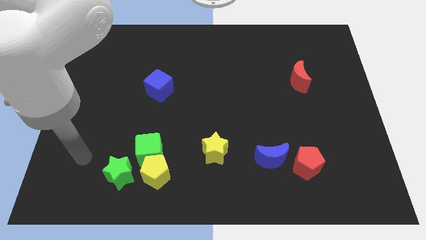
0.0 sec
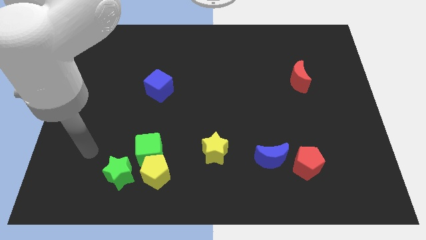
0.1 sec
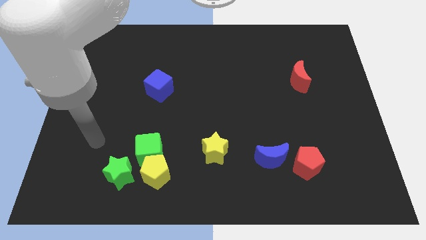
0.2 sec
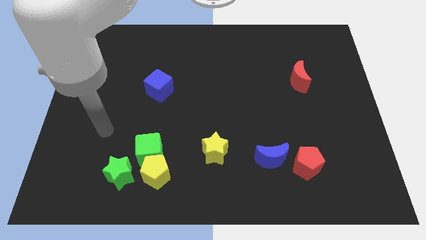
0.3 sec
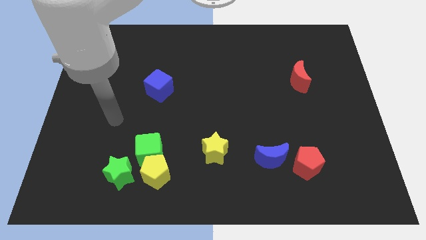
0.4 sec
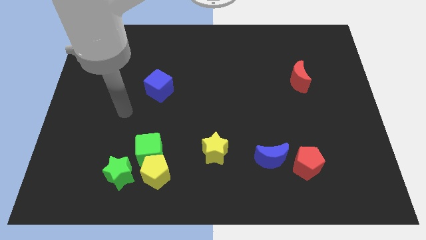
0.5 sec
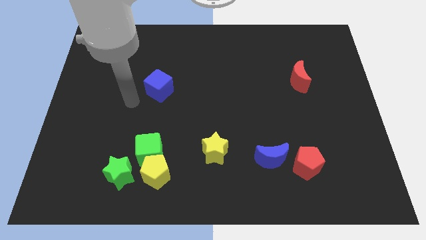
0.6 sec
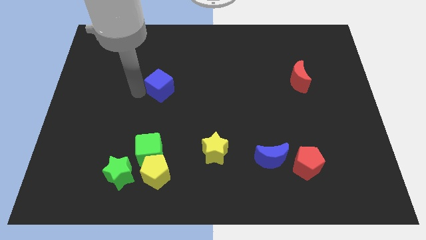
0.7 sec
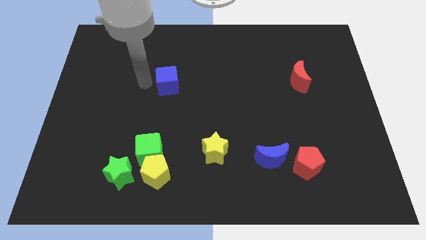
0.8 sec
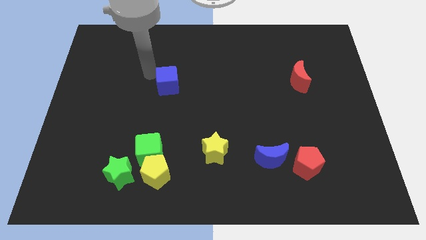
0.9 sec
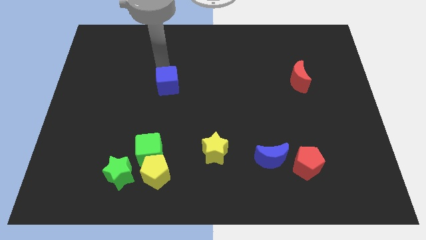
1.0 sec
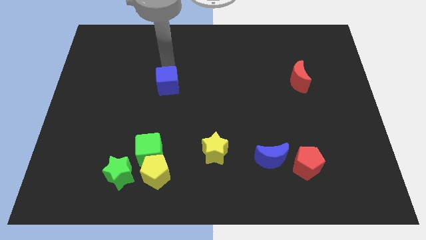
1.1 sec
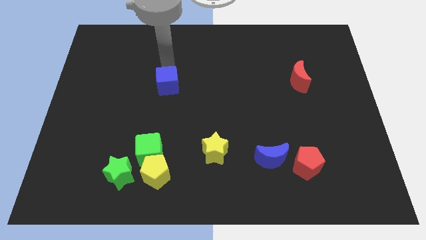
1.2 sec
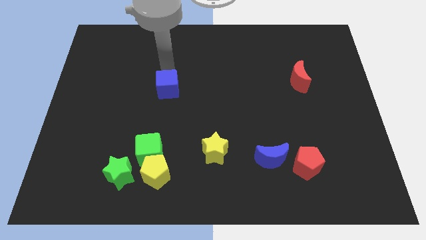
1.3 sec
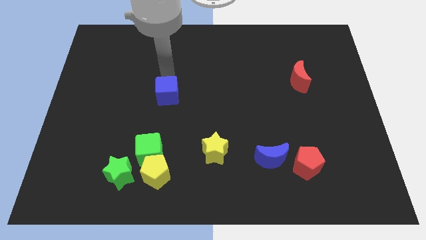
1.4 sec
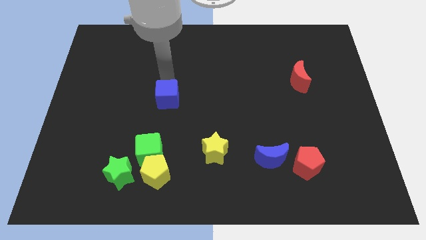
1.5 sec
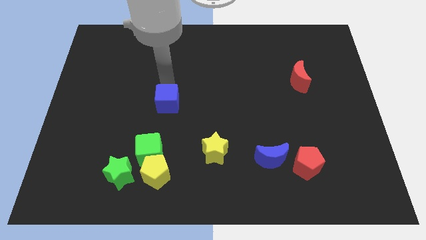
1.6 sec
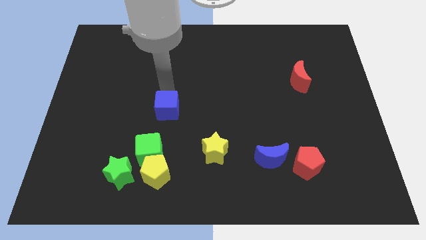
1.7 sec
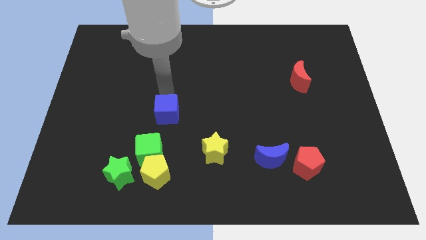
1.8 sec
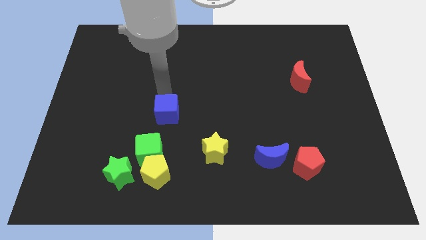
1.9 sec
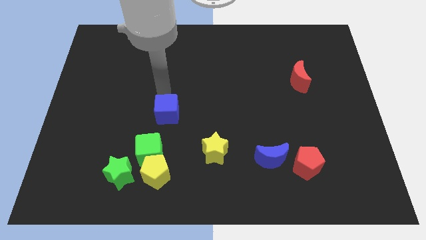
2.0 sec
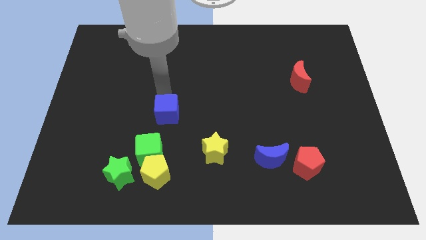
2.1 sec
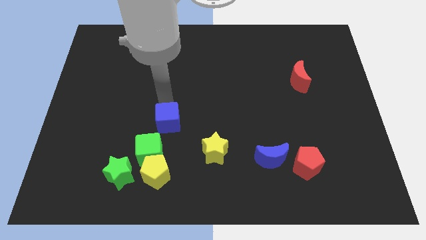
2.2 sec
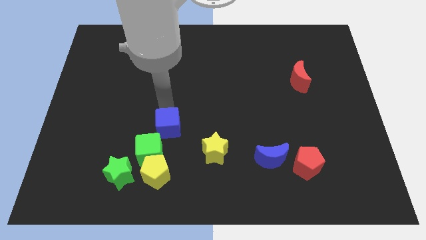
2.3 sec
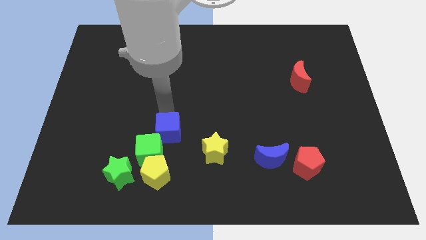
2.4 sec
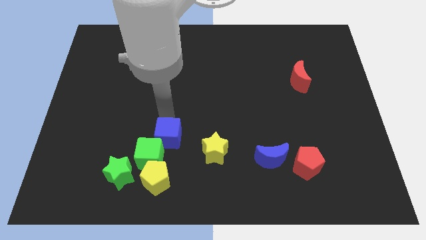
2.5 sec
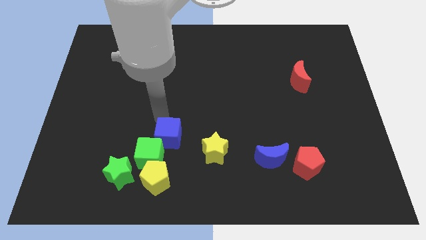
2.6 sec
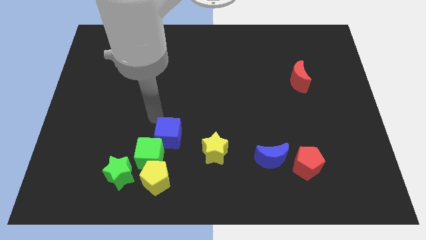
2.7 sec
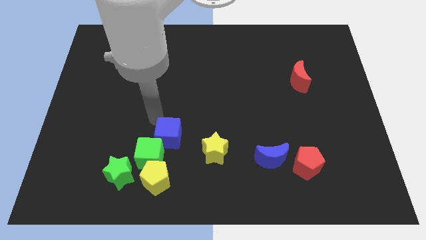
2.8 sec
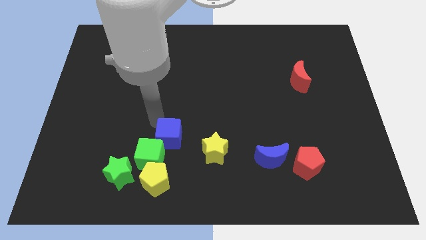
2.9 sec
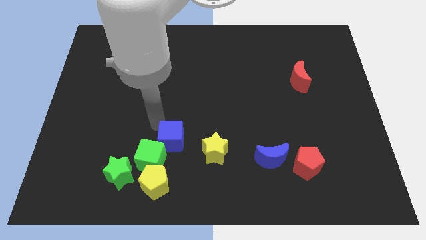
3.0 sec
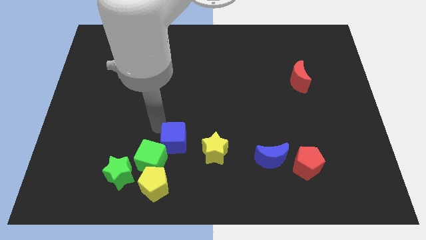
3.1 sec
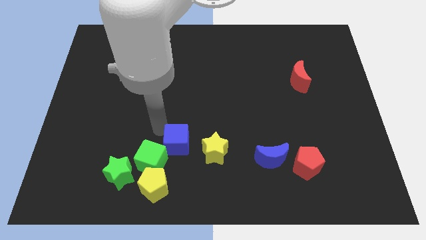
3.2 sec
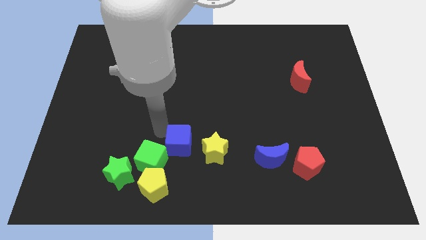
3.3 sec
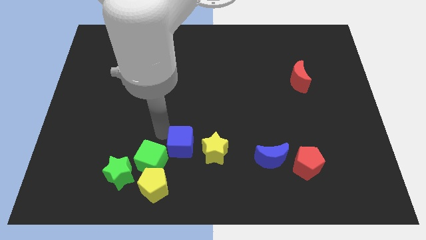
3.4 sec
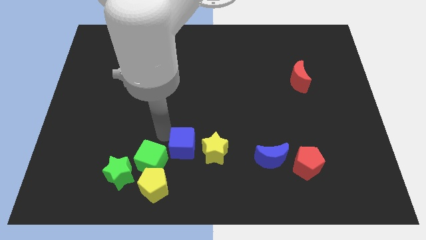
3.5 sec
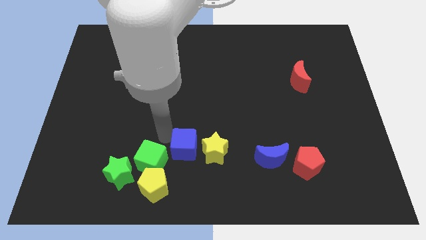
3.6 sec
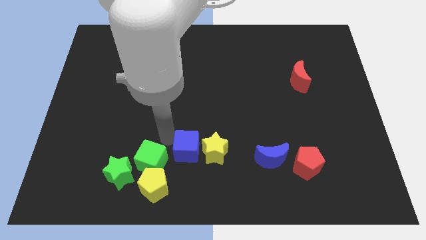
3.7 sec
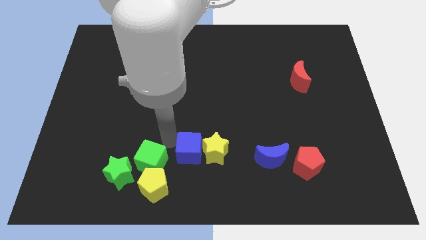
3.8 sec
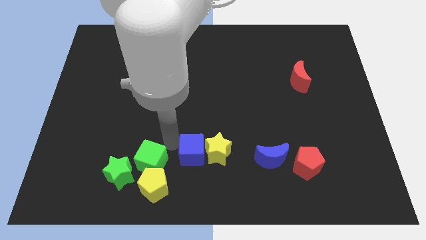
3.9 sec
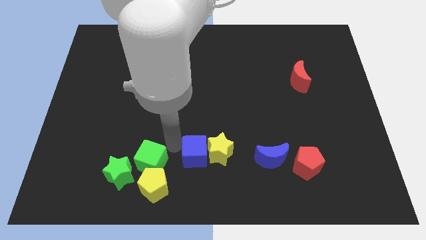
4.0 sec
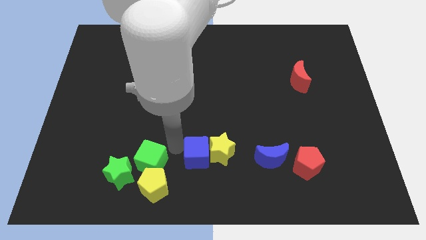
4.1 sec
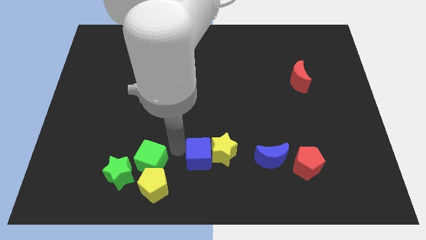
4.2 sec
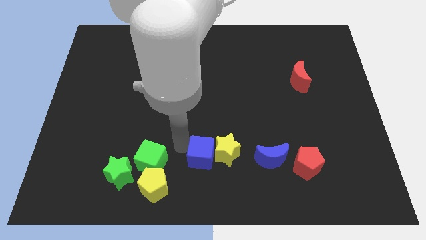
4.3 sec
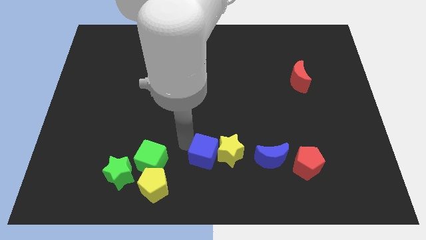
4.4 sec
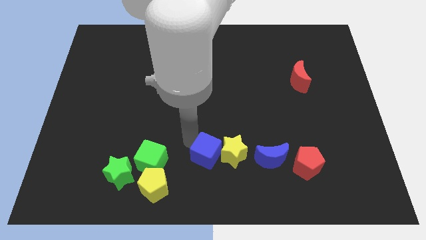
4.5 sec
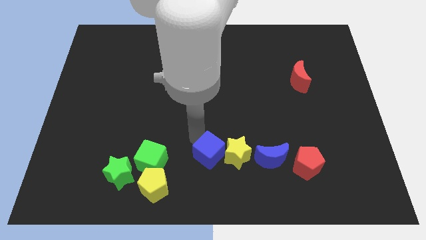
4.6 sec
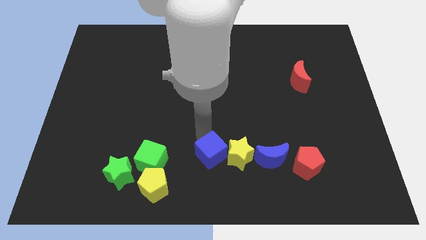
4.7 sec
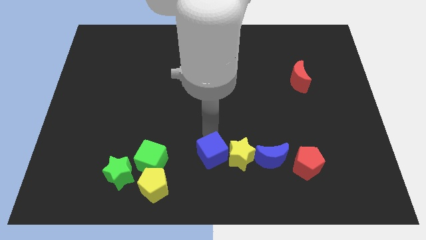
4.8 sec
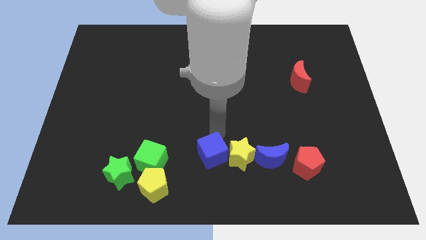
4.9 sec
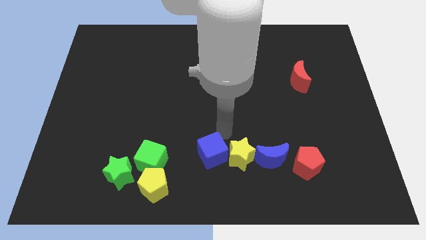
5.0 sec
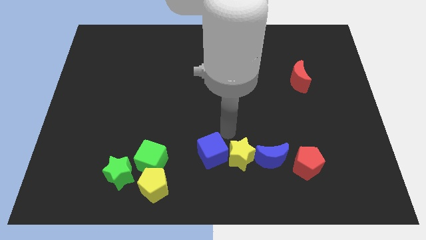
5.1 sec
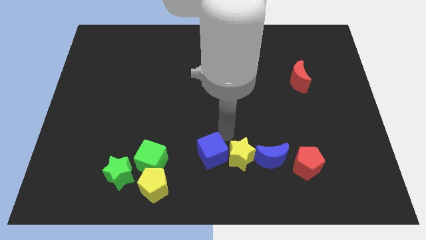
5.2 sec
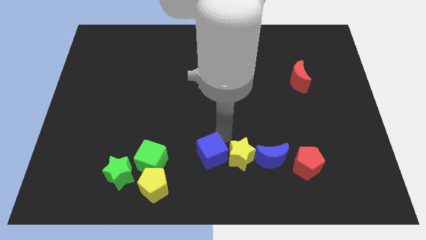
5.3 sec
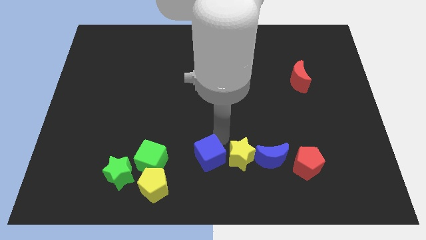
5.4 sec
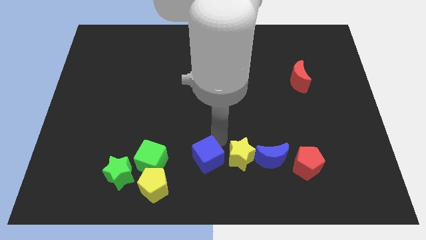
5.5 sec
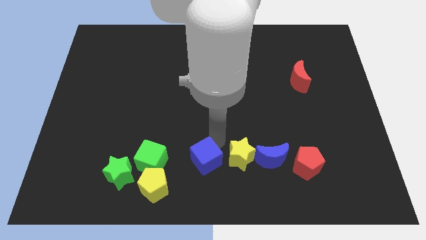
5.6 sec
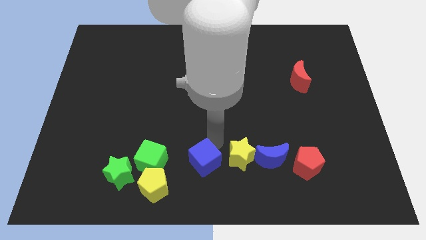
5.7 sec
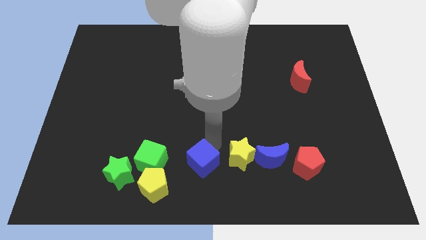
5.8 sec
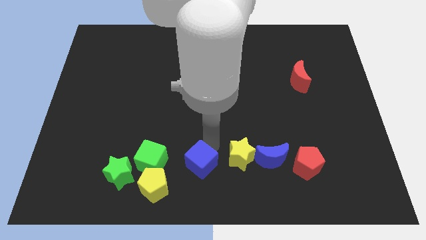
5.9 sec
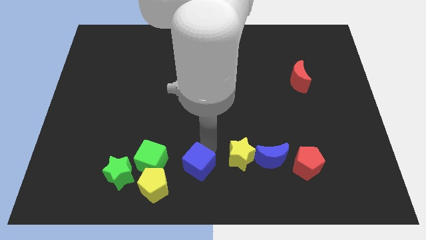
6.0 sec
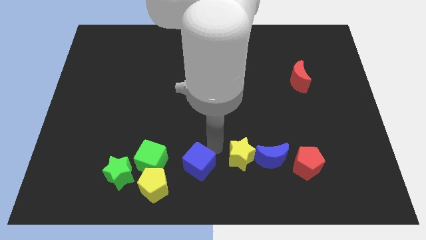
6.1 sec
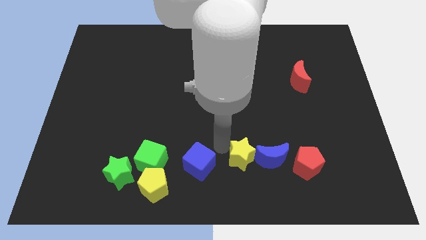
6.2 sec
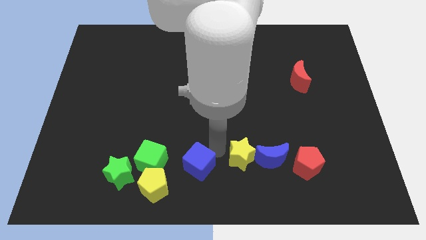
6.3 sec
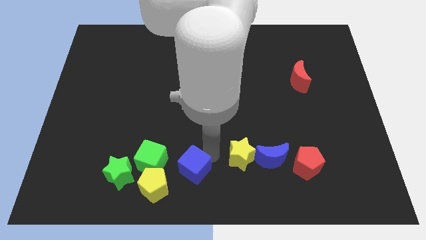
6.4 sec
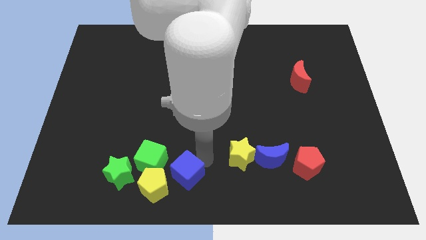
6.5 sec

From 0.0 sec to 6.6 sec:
slide the blue cube to the bottom right side of the green cube
